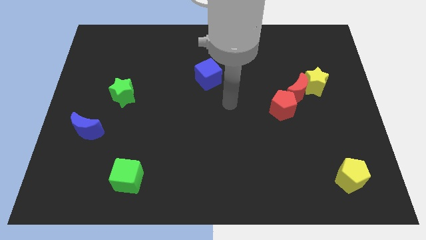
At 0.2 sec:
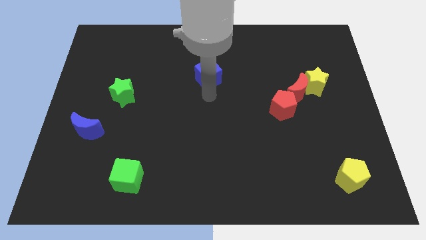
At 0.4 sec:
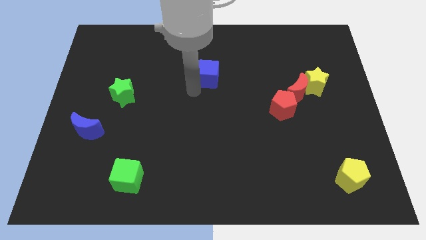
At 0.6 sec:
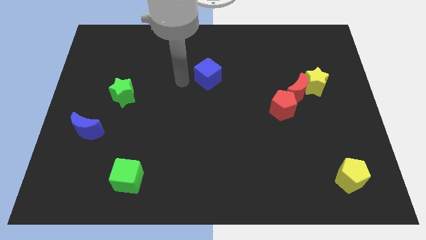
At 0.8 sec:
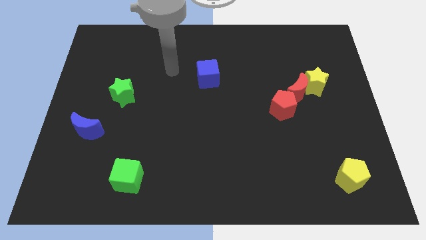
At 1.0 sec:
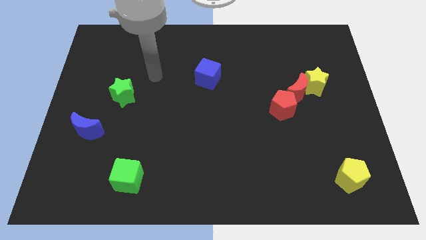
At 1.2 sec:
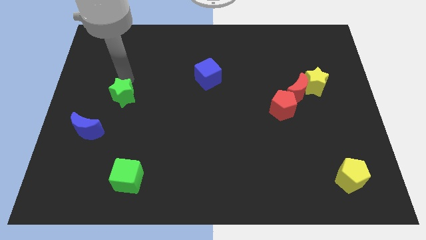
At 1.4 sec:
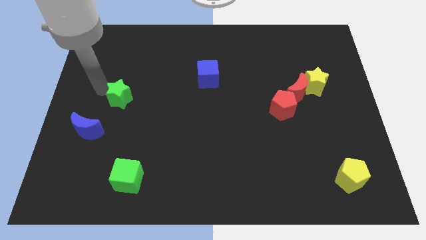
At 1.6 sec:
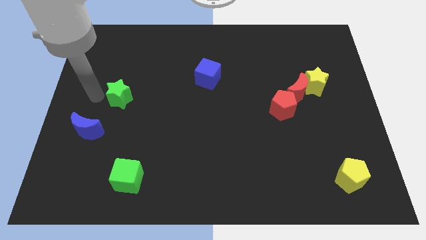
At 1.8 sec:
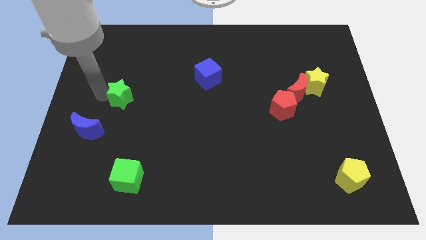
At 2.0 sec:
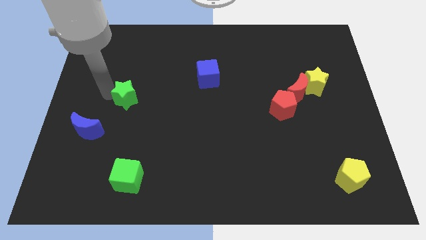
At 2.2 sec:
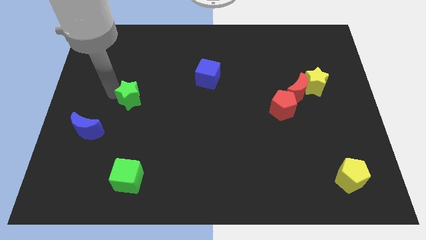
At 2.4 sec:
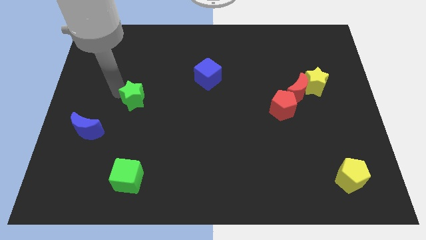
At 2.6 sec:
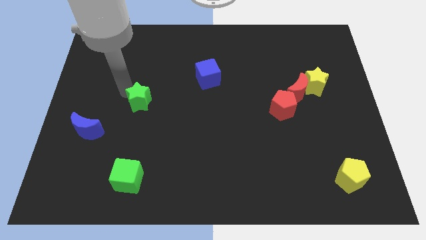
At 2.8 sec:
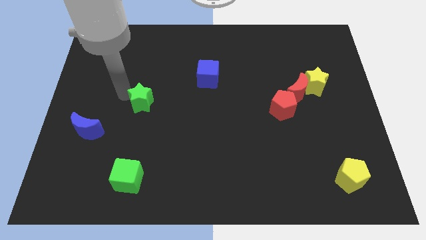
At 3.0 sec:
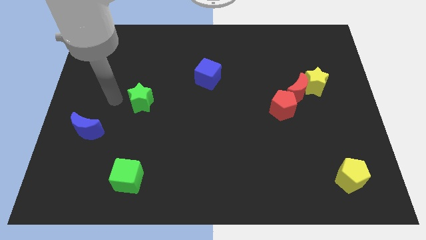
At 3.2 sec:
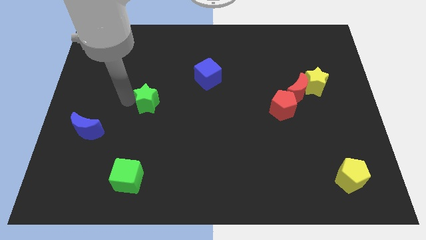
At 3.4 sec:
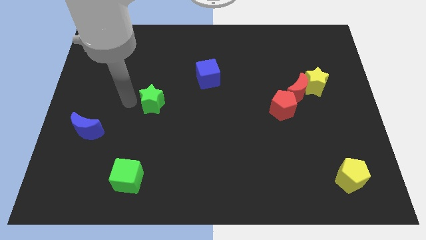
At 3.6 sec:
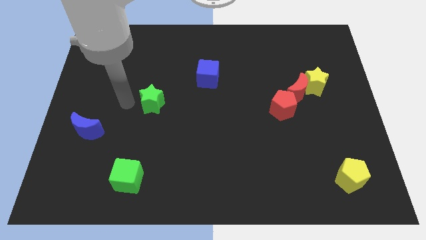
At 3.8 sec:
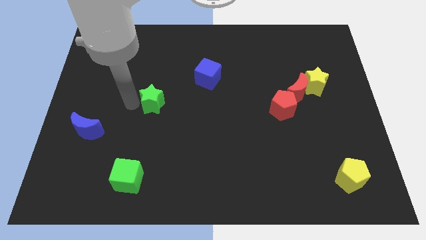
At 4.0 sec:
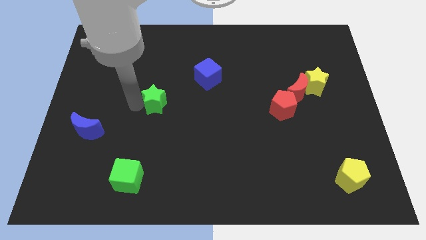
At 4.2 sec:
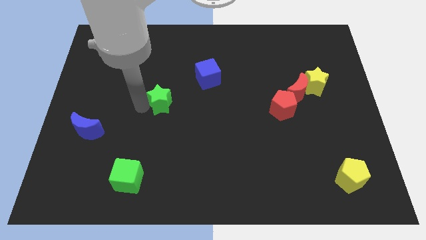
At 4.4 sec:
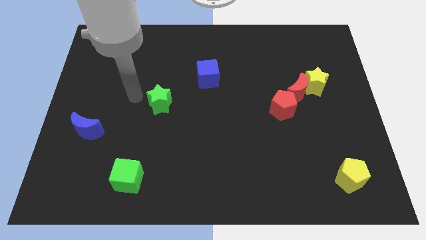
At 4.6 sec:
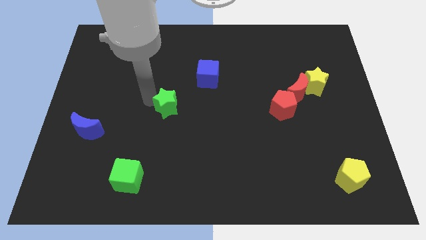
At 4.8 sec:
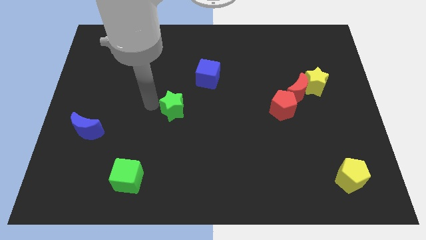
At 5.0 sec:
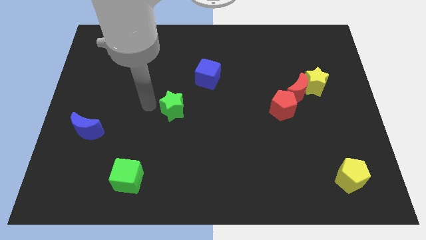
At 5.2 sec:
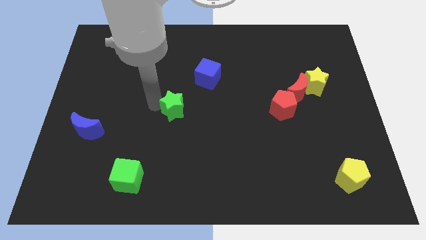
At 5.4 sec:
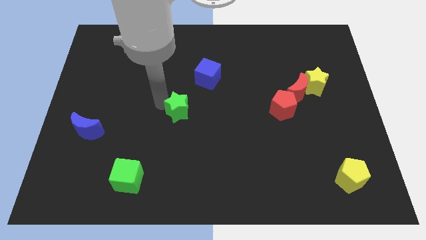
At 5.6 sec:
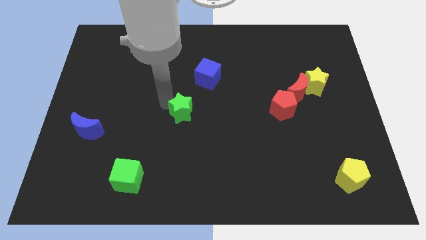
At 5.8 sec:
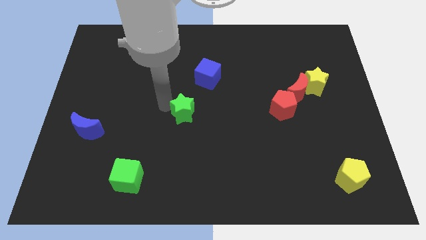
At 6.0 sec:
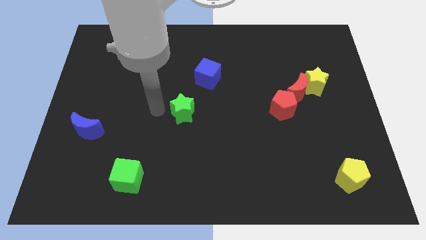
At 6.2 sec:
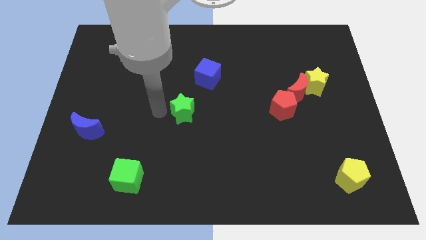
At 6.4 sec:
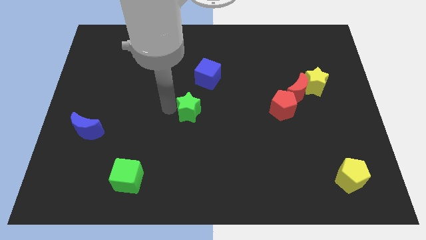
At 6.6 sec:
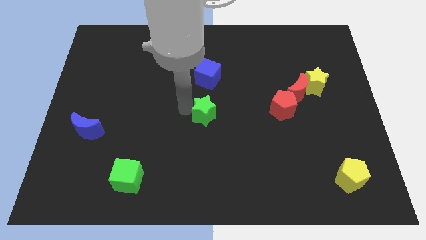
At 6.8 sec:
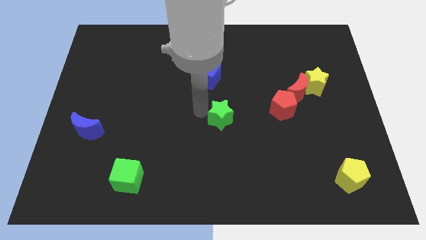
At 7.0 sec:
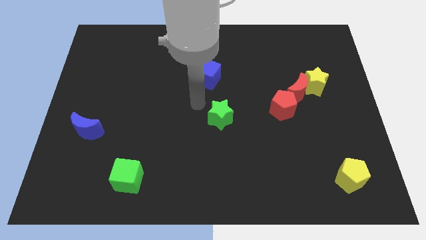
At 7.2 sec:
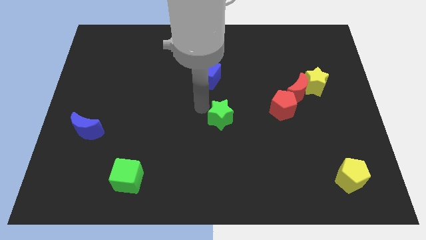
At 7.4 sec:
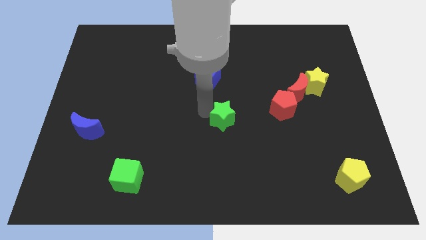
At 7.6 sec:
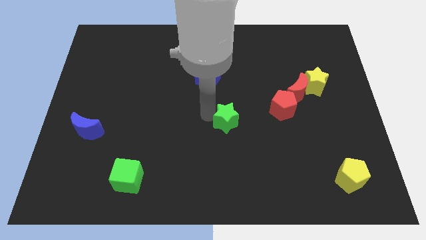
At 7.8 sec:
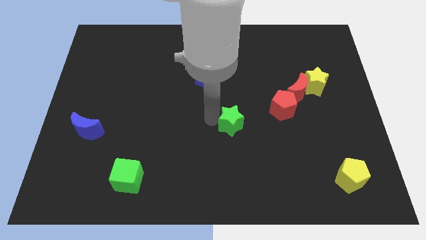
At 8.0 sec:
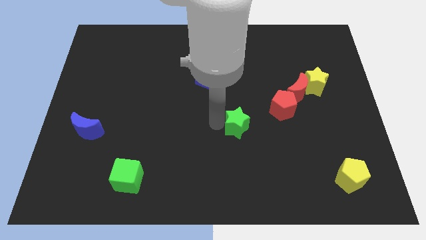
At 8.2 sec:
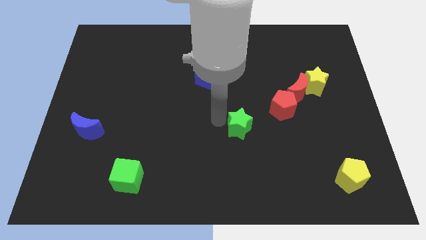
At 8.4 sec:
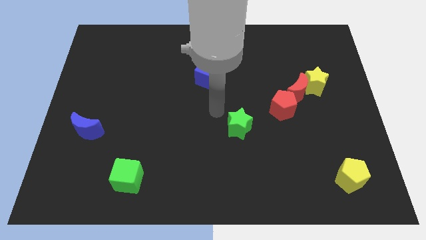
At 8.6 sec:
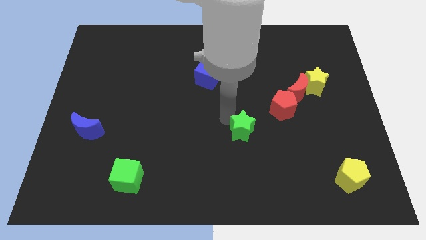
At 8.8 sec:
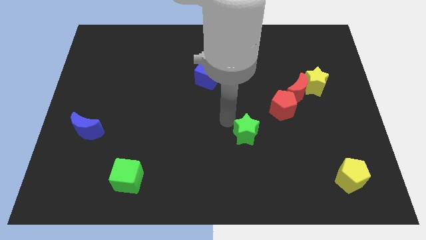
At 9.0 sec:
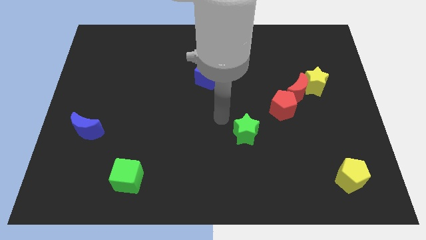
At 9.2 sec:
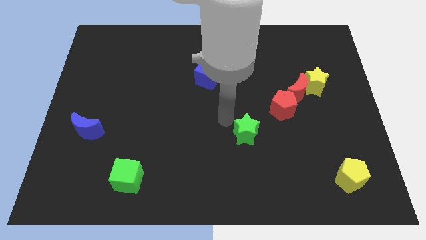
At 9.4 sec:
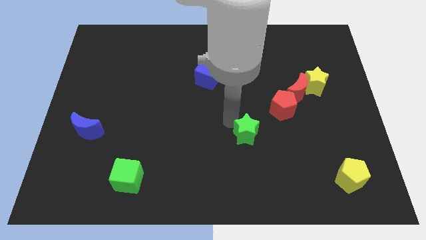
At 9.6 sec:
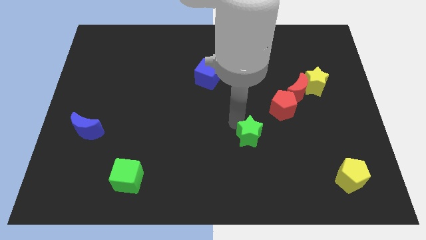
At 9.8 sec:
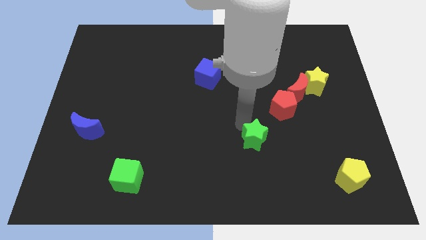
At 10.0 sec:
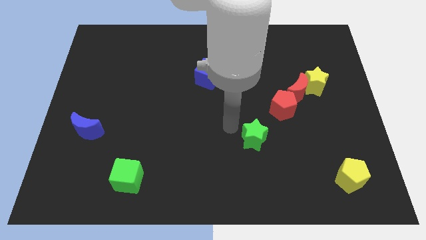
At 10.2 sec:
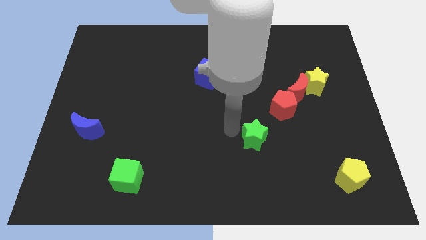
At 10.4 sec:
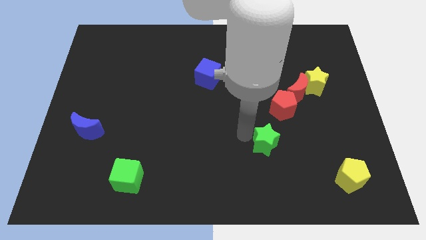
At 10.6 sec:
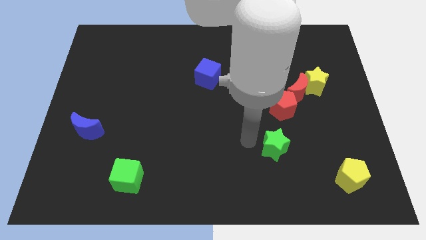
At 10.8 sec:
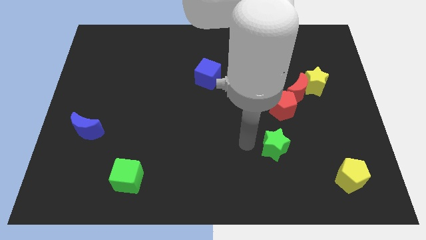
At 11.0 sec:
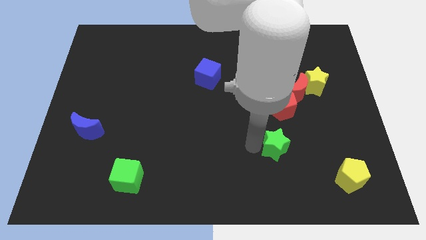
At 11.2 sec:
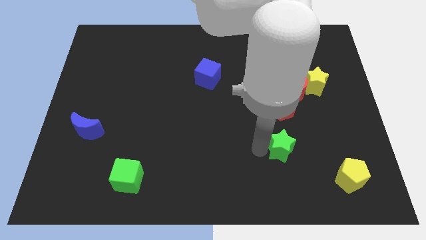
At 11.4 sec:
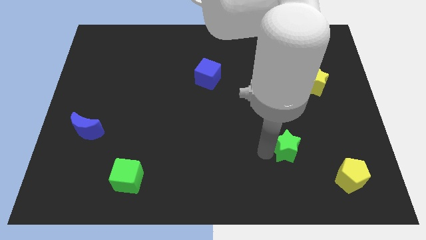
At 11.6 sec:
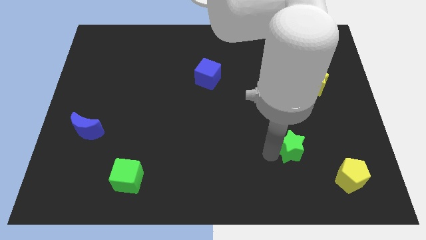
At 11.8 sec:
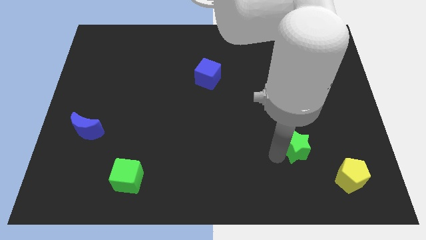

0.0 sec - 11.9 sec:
move the green star diagonally up and to the left of the yellow pentagon

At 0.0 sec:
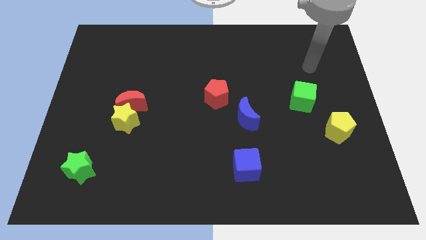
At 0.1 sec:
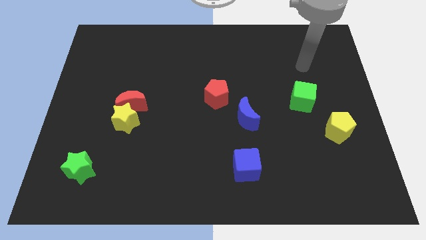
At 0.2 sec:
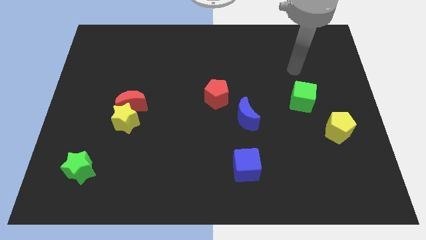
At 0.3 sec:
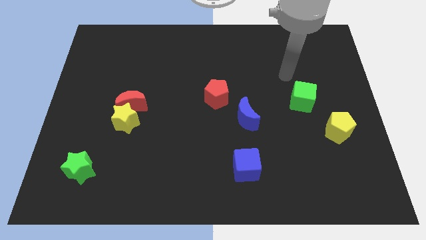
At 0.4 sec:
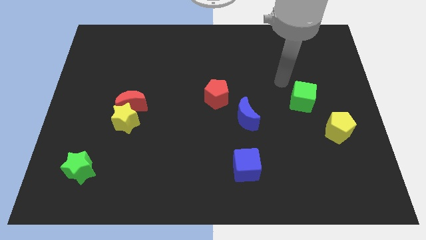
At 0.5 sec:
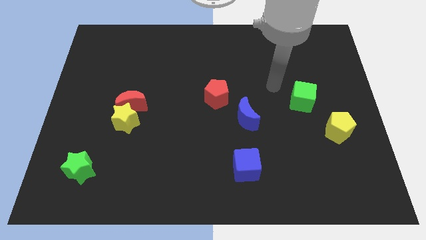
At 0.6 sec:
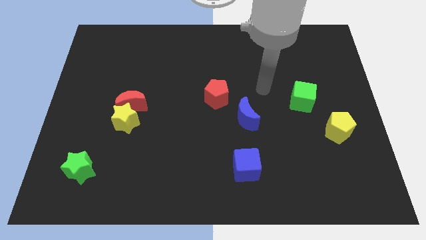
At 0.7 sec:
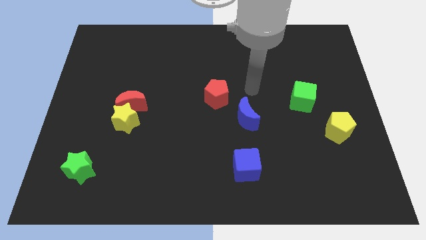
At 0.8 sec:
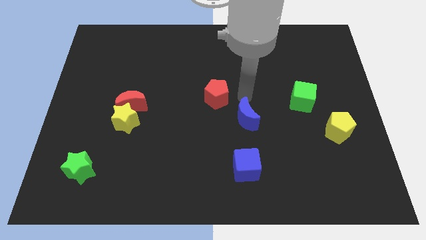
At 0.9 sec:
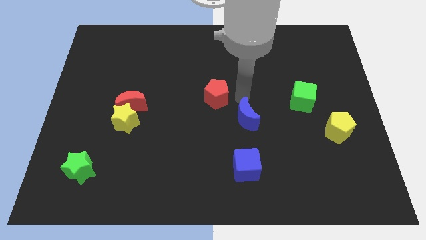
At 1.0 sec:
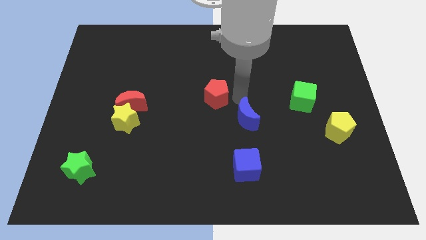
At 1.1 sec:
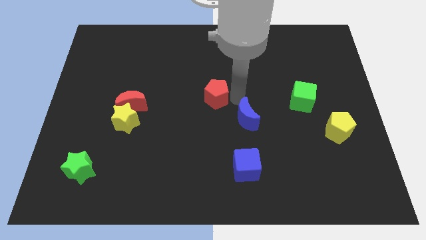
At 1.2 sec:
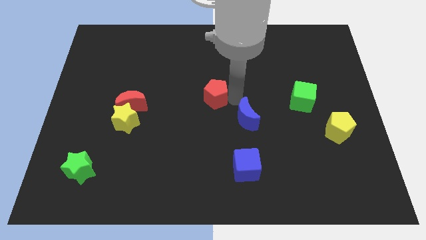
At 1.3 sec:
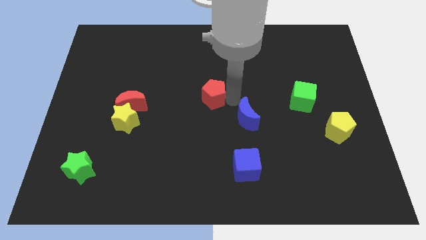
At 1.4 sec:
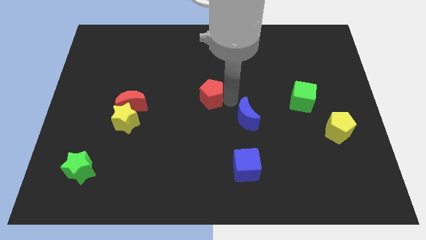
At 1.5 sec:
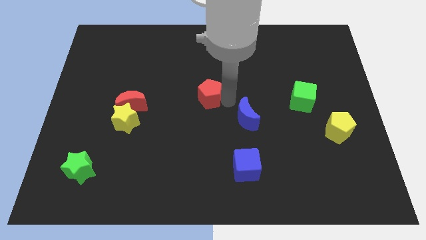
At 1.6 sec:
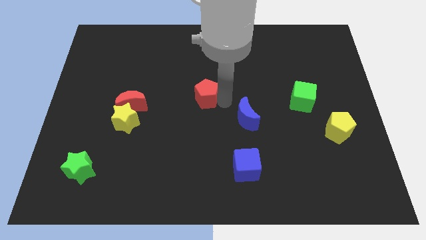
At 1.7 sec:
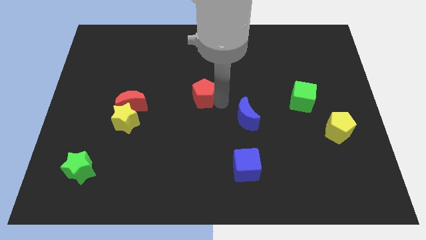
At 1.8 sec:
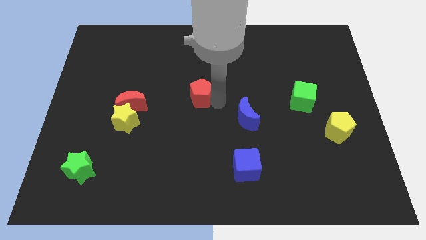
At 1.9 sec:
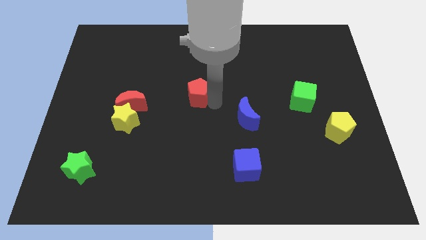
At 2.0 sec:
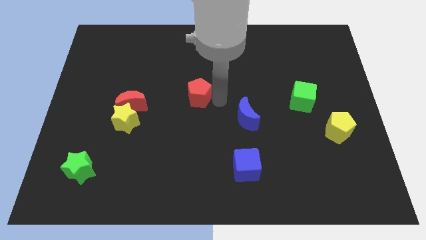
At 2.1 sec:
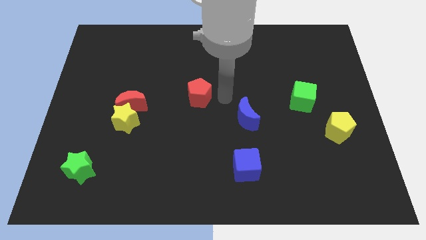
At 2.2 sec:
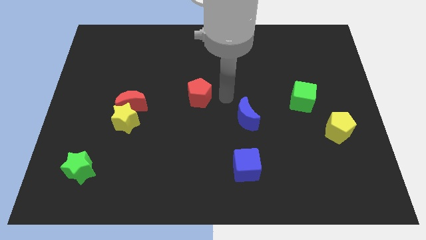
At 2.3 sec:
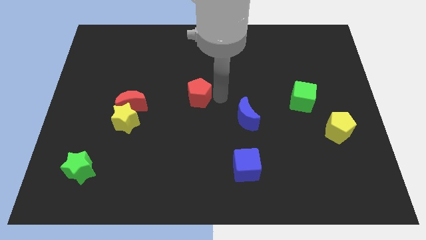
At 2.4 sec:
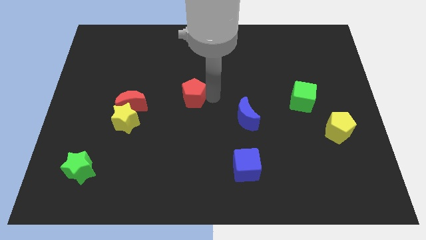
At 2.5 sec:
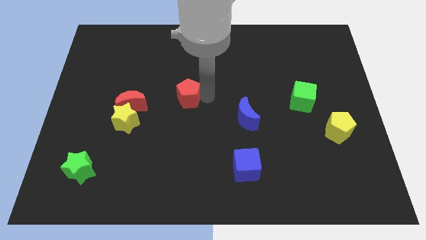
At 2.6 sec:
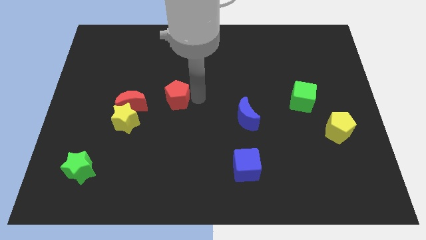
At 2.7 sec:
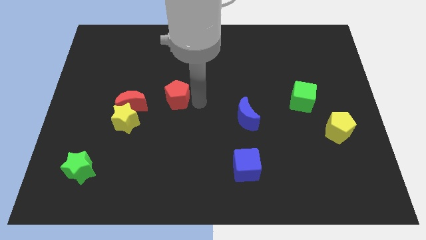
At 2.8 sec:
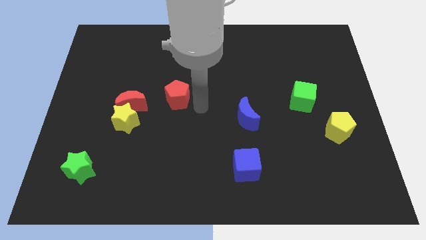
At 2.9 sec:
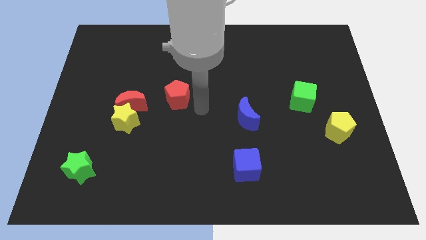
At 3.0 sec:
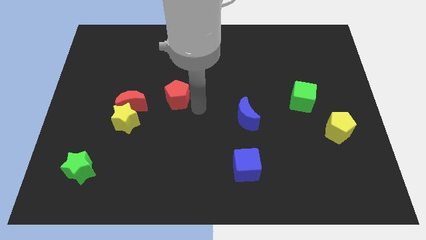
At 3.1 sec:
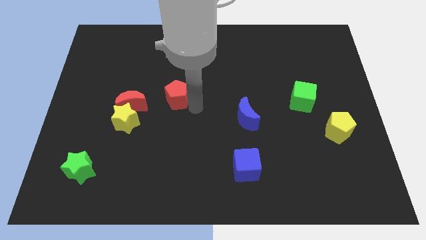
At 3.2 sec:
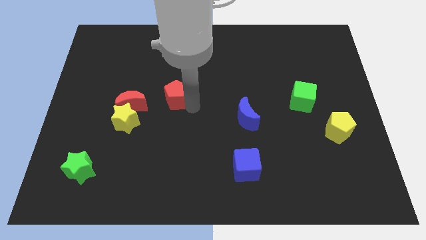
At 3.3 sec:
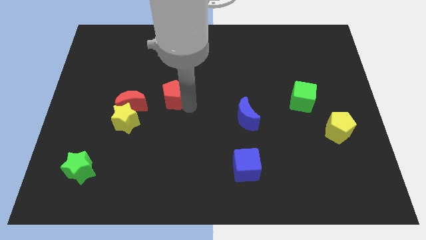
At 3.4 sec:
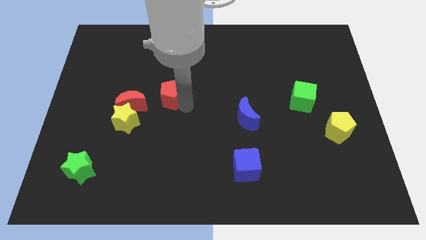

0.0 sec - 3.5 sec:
slide the red pentagon to the top right of the red moon
